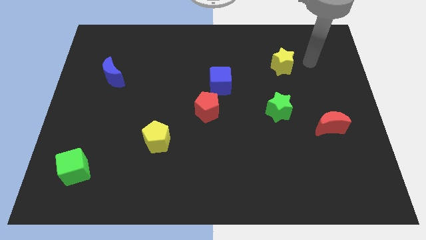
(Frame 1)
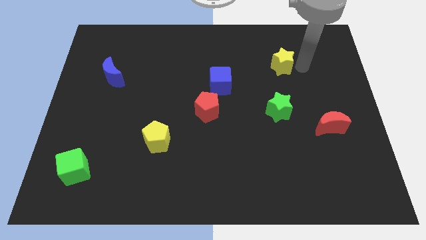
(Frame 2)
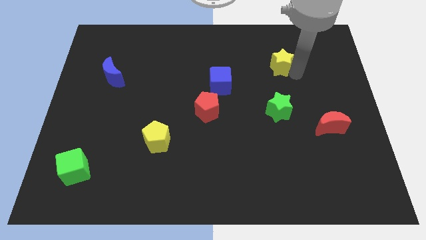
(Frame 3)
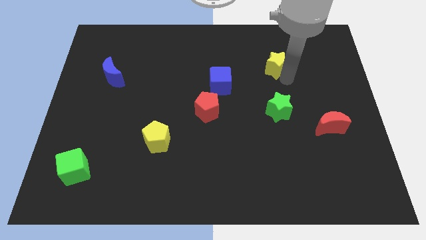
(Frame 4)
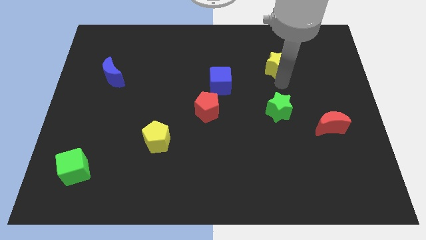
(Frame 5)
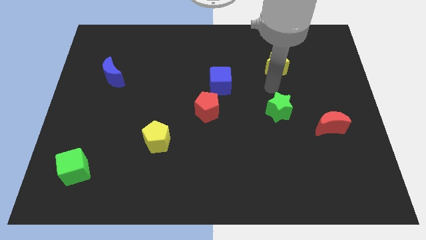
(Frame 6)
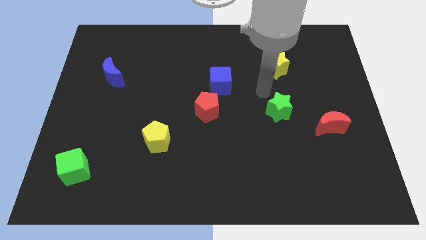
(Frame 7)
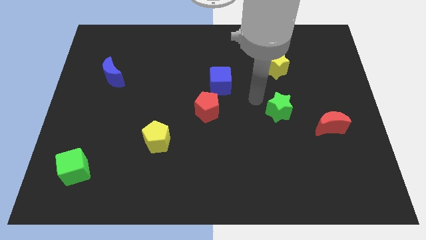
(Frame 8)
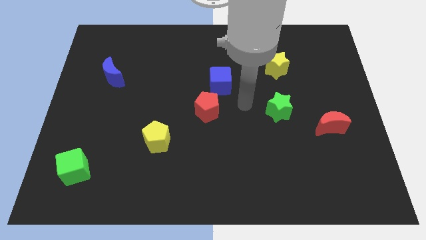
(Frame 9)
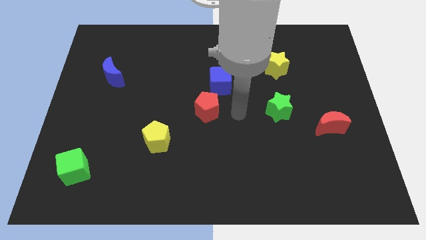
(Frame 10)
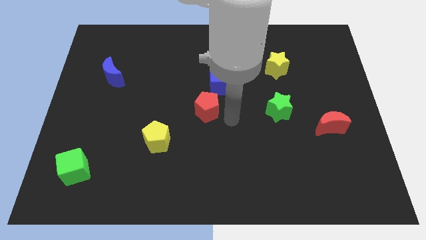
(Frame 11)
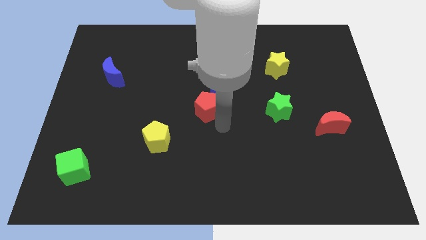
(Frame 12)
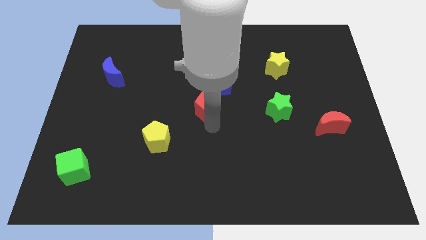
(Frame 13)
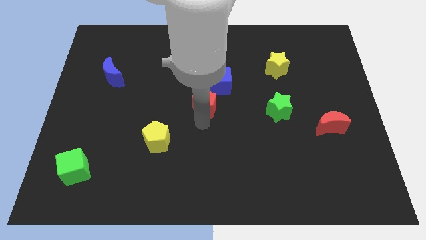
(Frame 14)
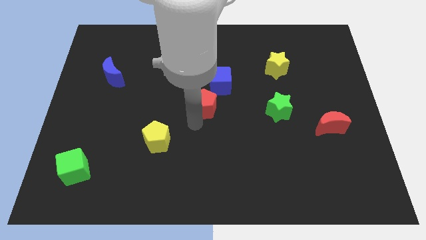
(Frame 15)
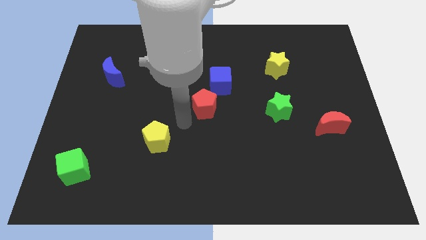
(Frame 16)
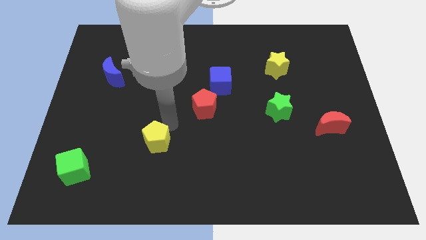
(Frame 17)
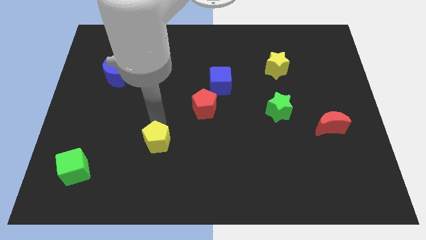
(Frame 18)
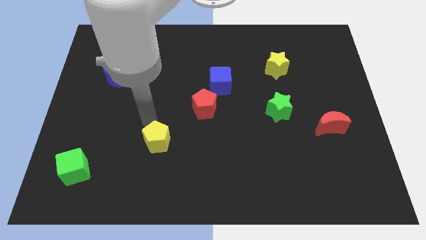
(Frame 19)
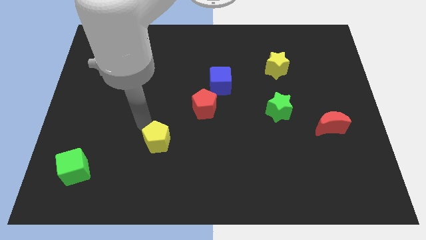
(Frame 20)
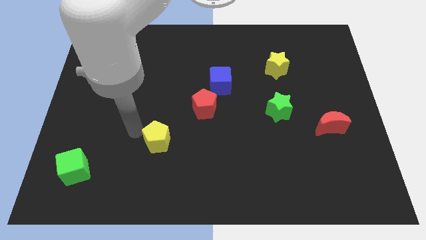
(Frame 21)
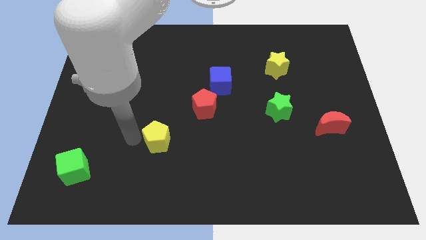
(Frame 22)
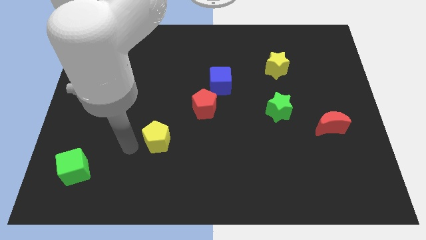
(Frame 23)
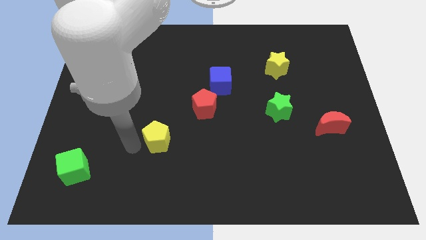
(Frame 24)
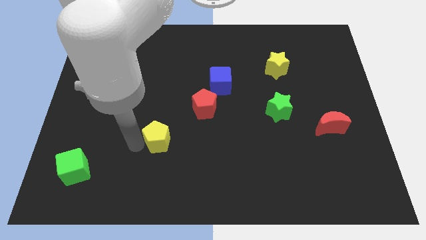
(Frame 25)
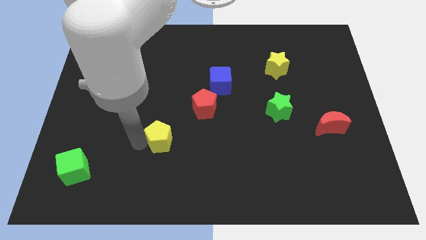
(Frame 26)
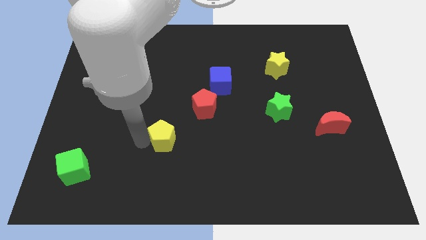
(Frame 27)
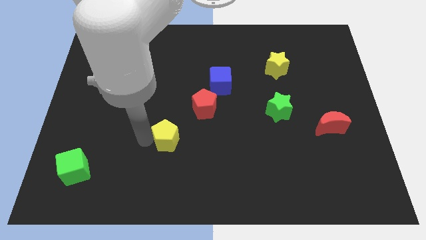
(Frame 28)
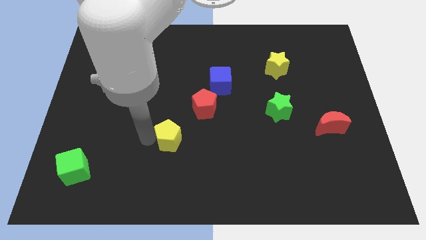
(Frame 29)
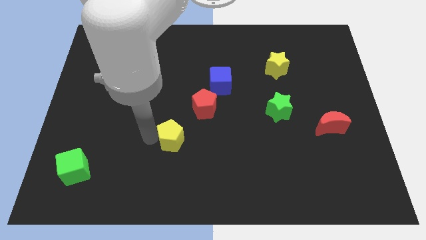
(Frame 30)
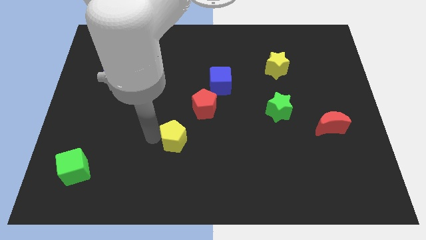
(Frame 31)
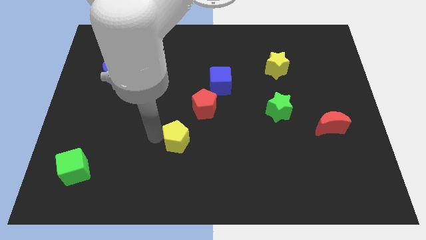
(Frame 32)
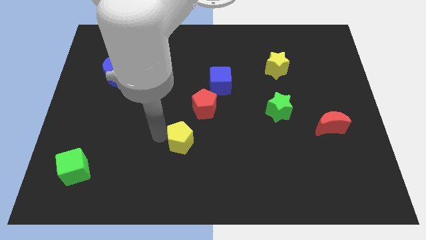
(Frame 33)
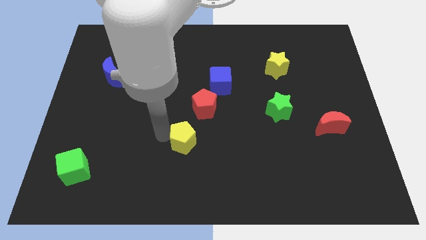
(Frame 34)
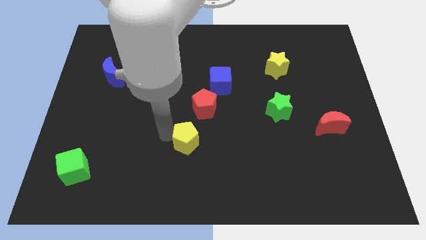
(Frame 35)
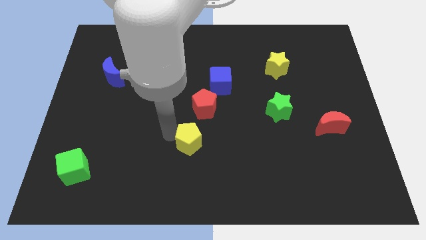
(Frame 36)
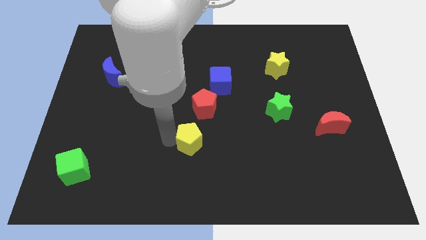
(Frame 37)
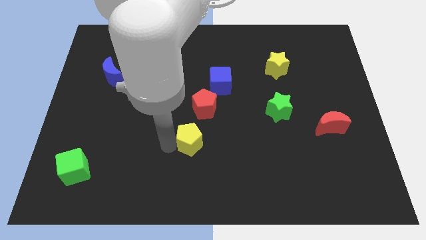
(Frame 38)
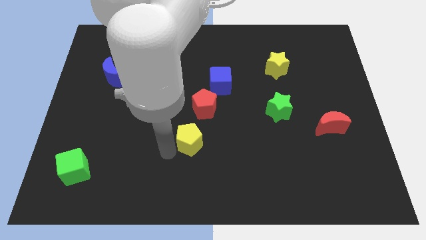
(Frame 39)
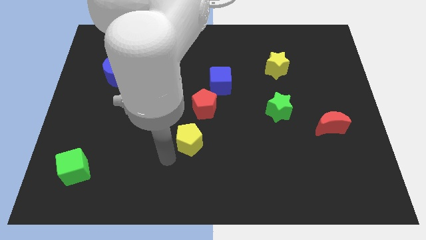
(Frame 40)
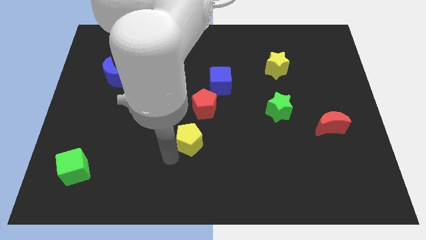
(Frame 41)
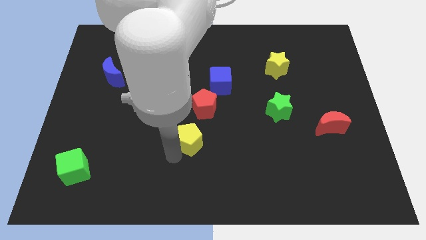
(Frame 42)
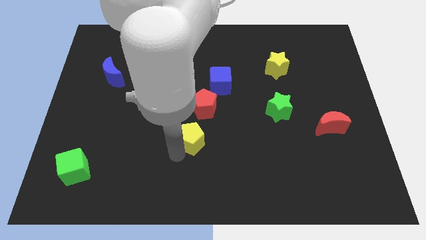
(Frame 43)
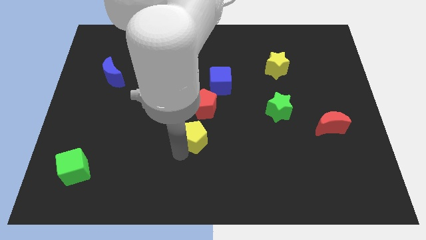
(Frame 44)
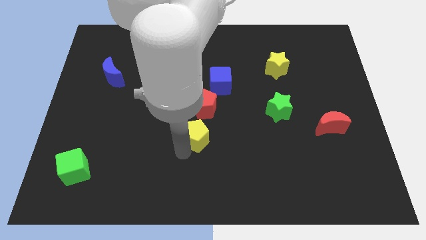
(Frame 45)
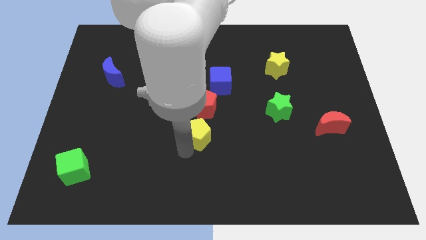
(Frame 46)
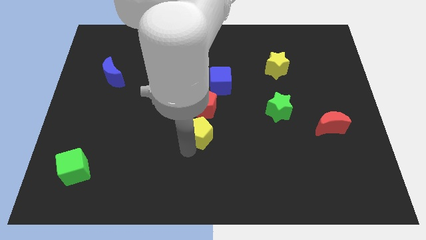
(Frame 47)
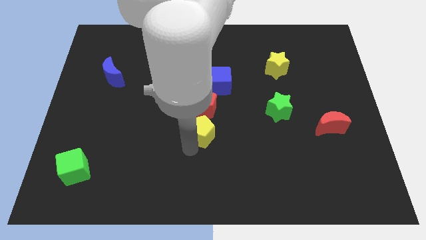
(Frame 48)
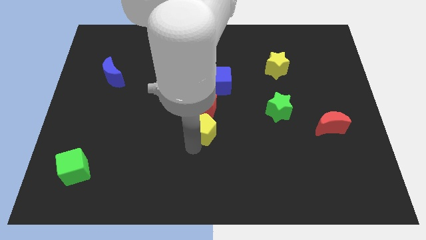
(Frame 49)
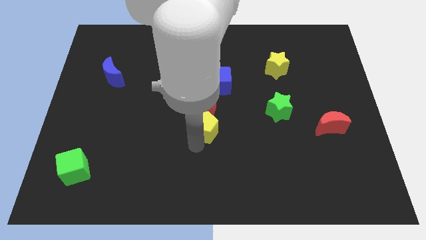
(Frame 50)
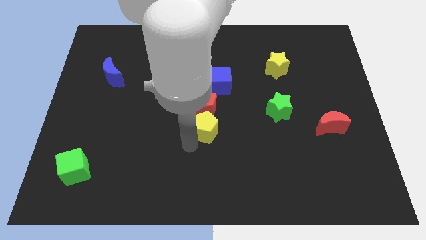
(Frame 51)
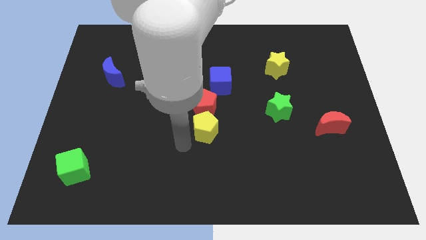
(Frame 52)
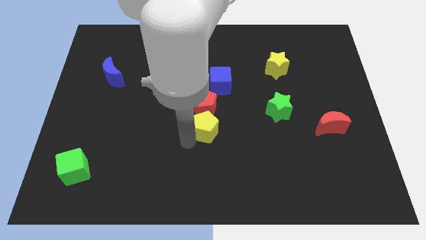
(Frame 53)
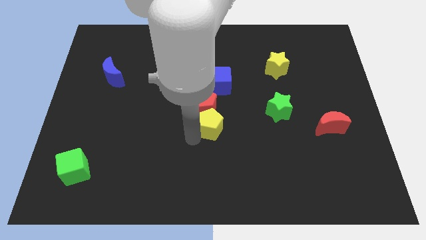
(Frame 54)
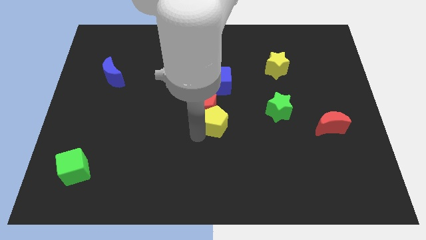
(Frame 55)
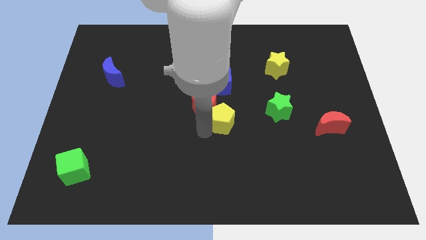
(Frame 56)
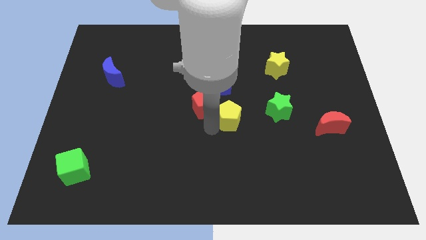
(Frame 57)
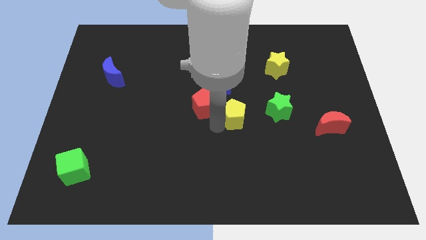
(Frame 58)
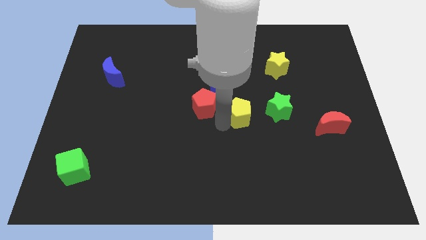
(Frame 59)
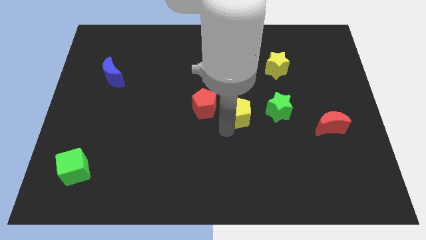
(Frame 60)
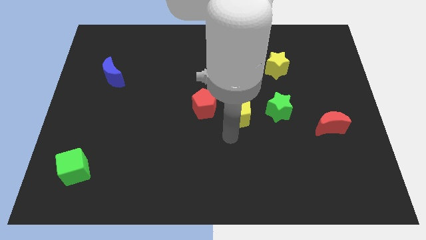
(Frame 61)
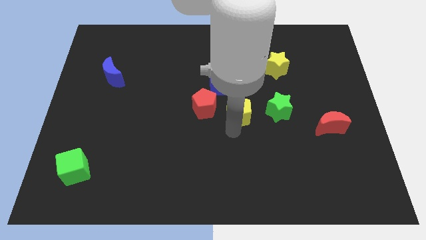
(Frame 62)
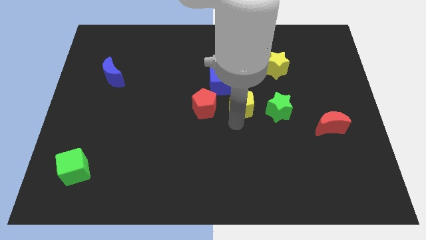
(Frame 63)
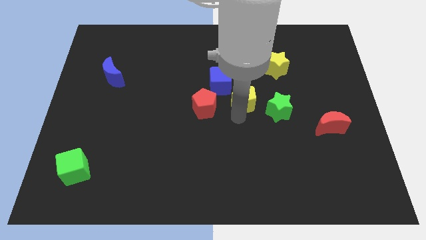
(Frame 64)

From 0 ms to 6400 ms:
move the yellow pentagon upwards and right diagonally

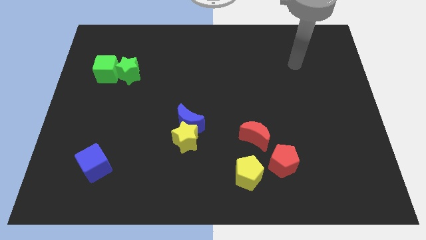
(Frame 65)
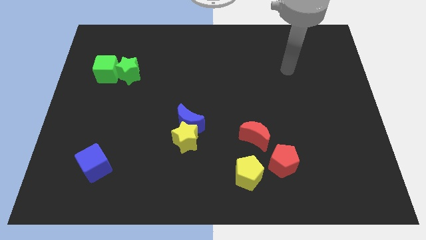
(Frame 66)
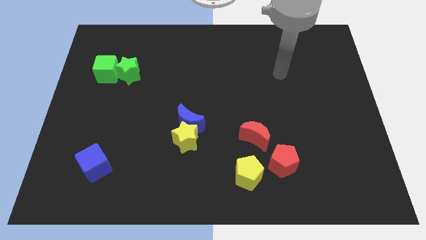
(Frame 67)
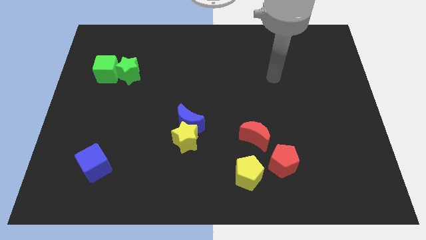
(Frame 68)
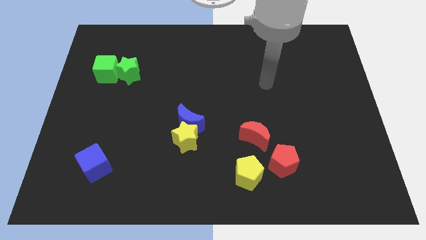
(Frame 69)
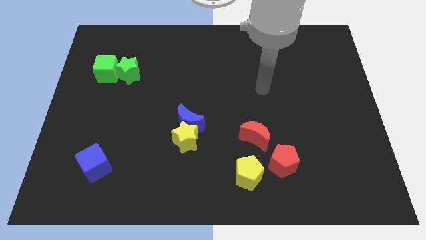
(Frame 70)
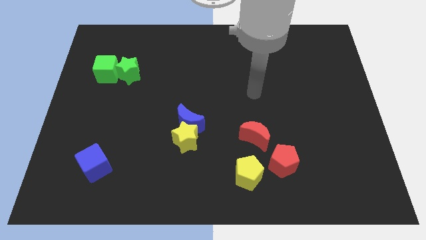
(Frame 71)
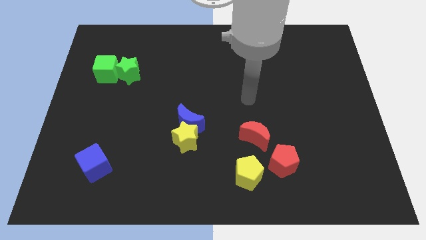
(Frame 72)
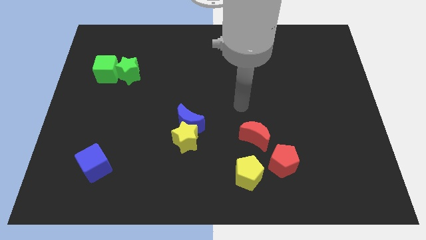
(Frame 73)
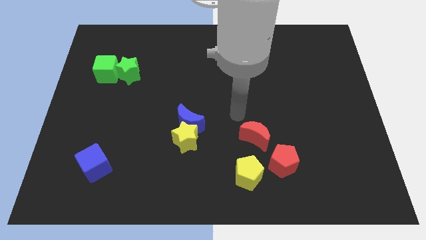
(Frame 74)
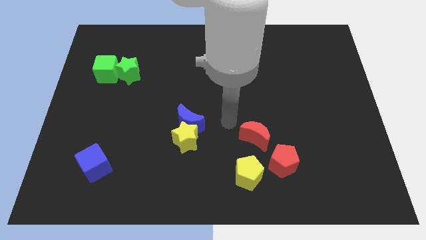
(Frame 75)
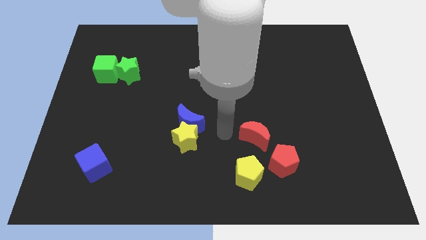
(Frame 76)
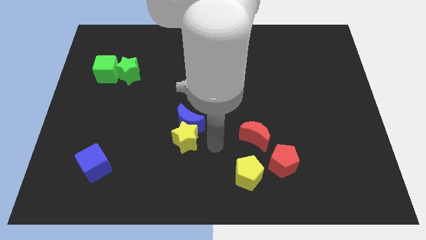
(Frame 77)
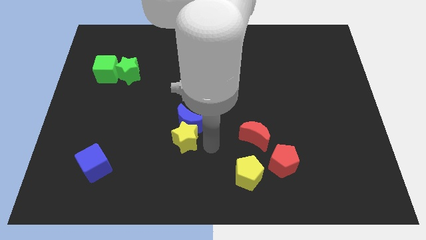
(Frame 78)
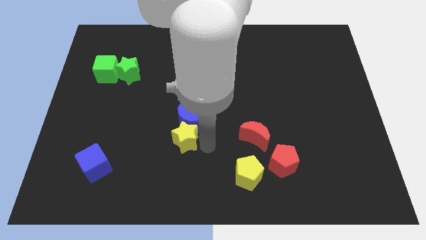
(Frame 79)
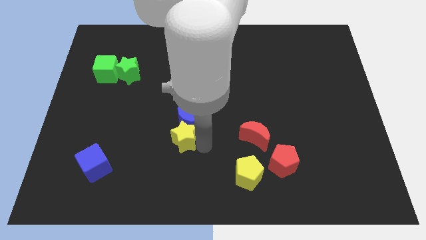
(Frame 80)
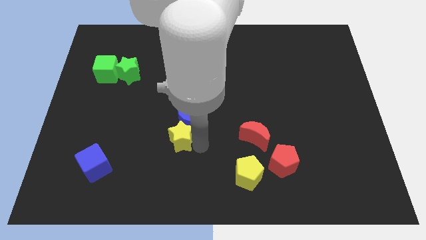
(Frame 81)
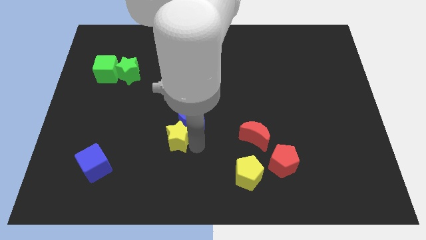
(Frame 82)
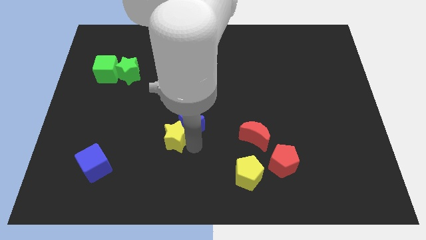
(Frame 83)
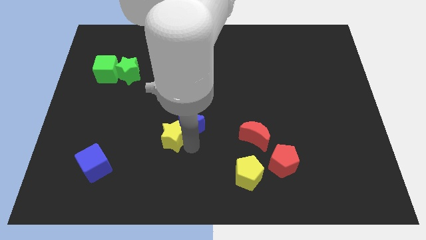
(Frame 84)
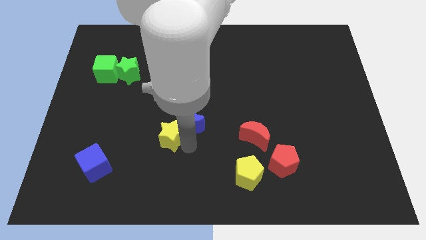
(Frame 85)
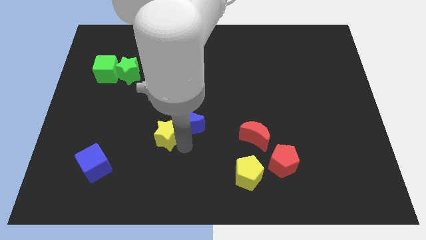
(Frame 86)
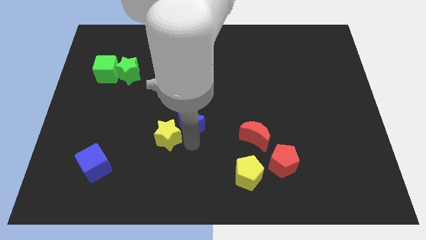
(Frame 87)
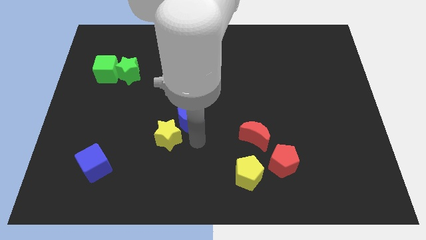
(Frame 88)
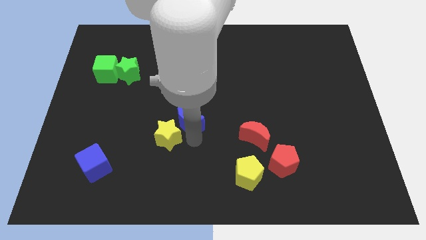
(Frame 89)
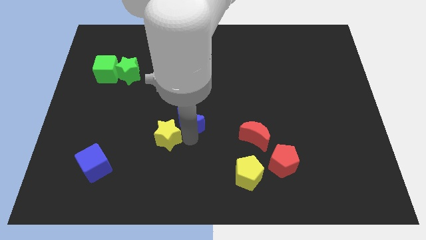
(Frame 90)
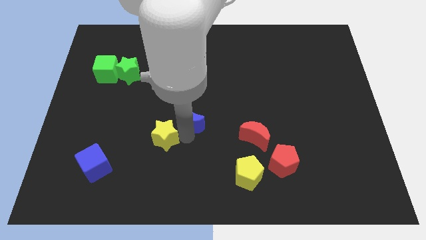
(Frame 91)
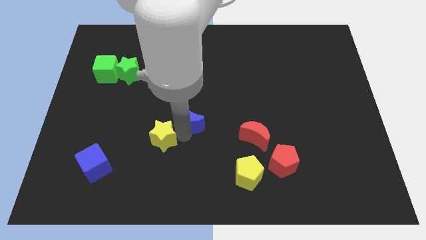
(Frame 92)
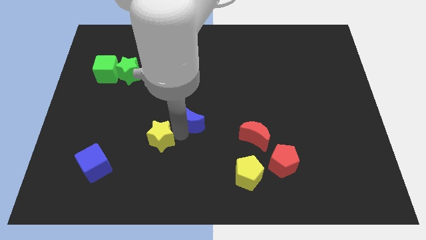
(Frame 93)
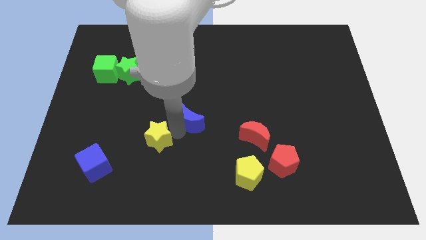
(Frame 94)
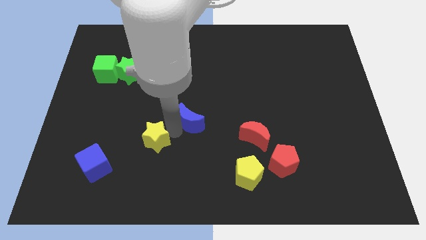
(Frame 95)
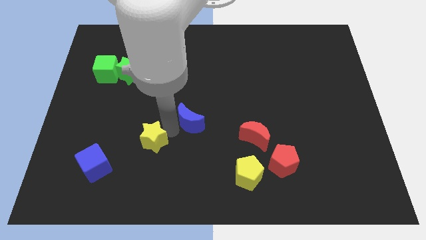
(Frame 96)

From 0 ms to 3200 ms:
slightly slide the yellow star left
